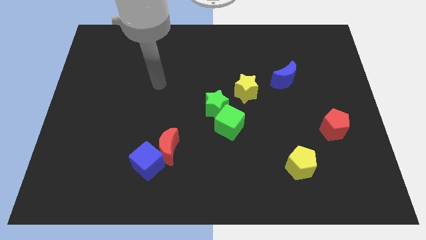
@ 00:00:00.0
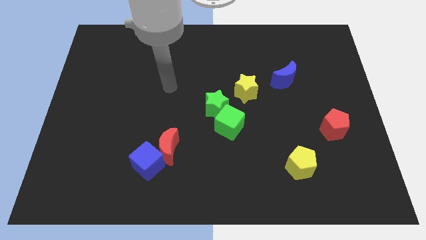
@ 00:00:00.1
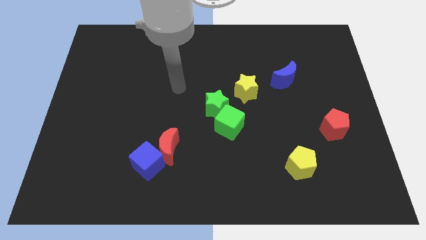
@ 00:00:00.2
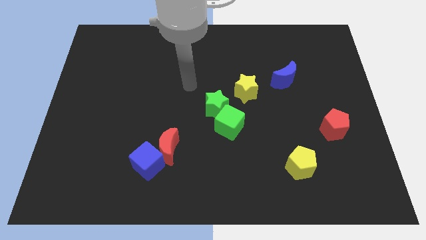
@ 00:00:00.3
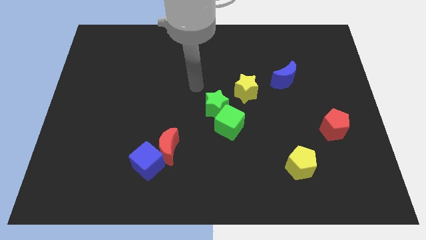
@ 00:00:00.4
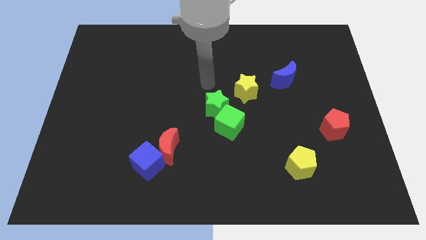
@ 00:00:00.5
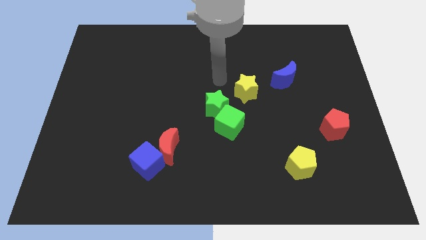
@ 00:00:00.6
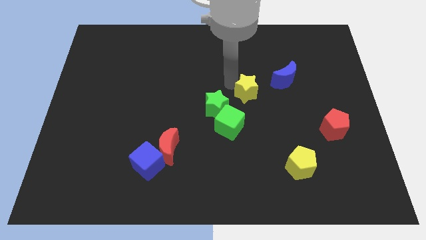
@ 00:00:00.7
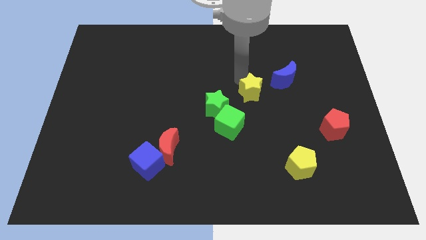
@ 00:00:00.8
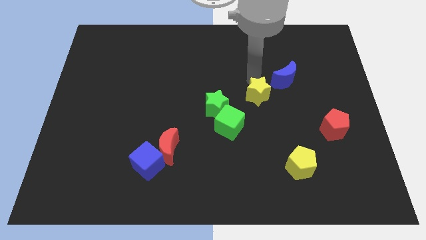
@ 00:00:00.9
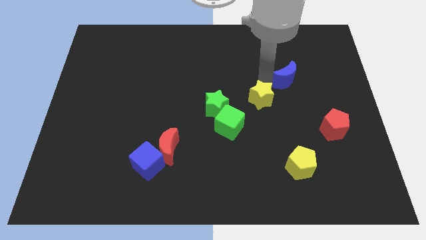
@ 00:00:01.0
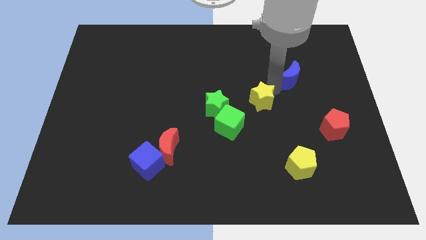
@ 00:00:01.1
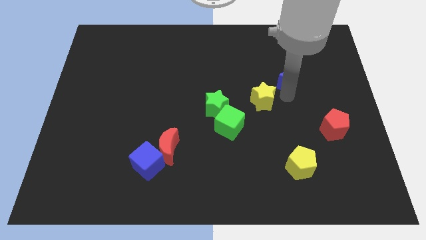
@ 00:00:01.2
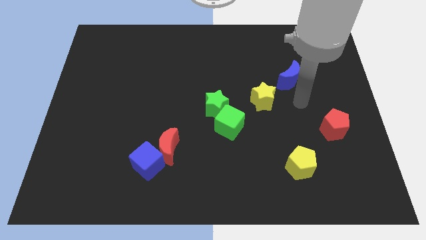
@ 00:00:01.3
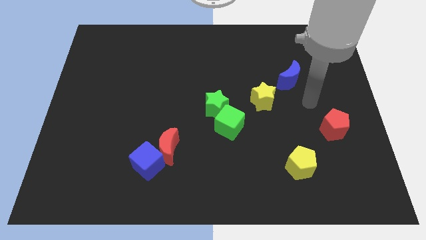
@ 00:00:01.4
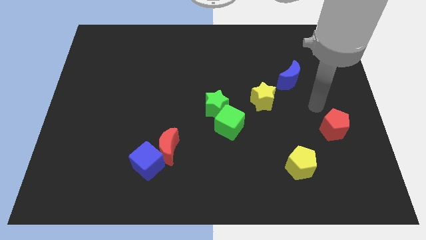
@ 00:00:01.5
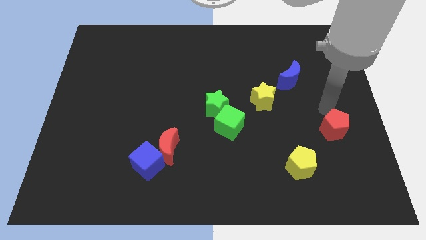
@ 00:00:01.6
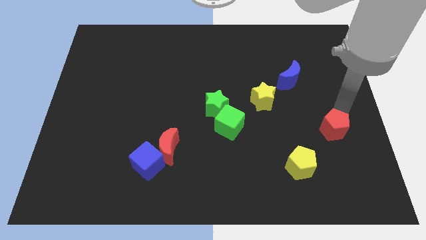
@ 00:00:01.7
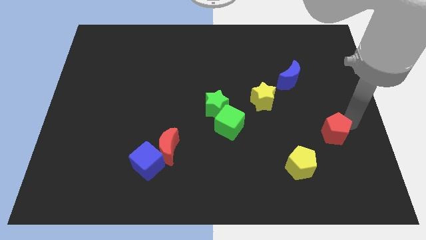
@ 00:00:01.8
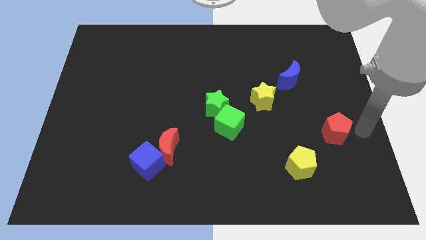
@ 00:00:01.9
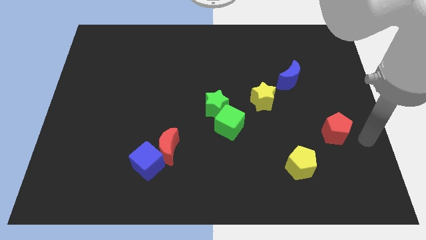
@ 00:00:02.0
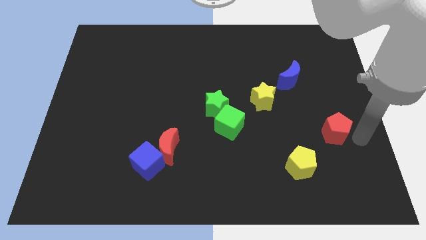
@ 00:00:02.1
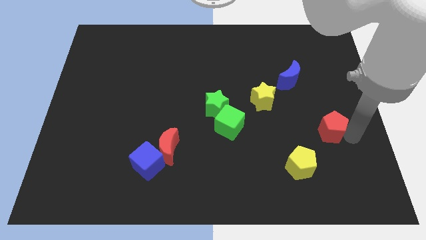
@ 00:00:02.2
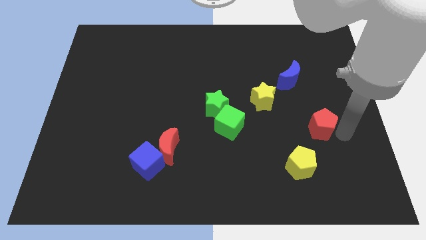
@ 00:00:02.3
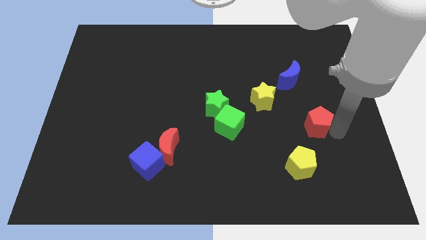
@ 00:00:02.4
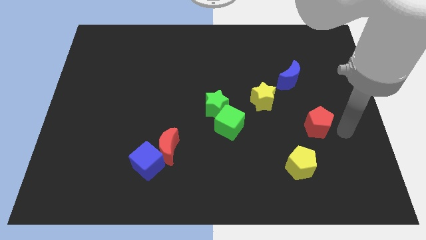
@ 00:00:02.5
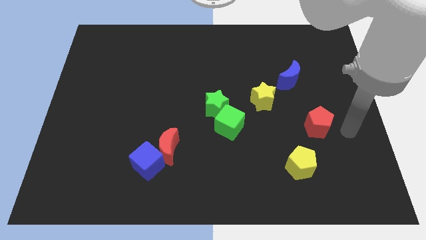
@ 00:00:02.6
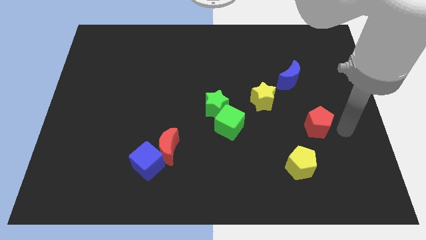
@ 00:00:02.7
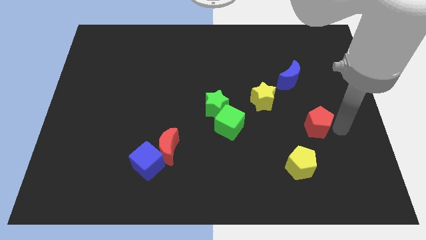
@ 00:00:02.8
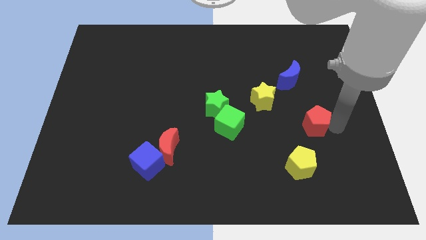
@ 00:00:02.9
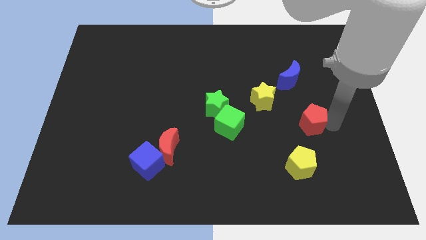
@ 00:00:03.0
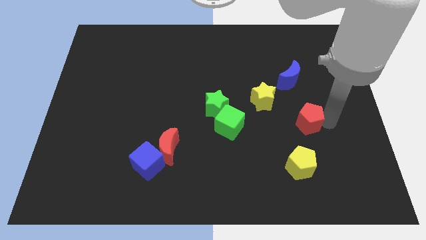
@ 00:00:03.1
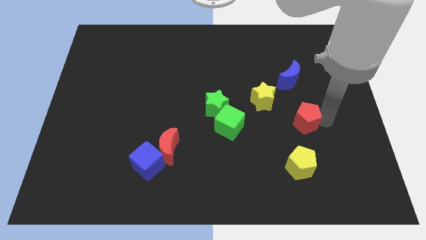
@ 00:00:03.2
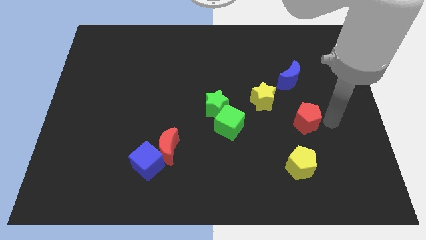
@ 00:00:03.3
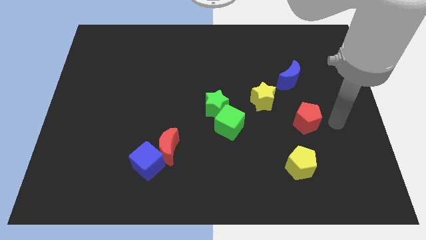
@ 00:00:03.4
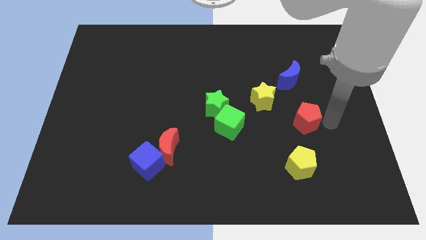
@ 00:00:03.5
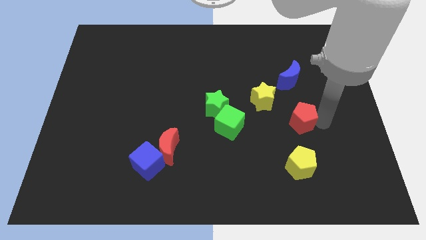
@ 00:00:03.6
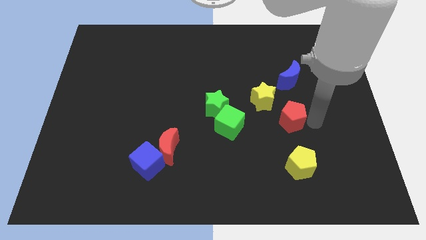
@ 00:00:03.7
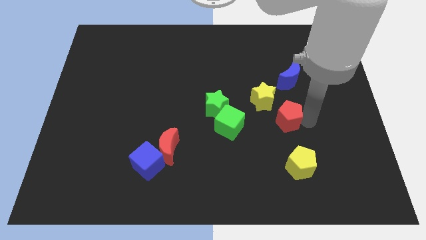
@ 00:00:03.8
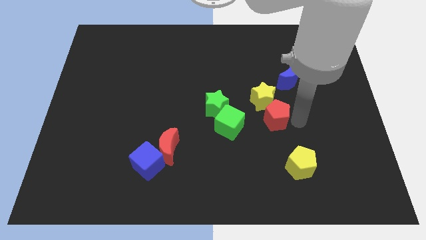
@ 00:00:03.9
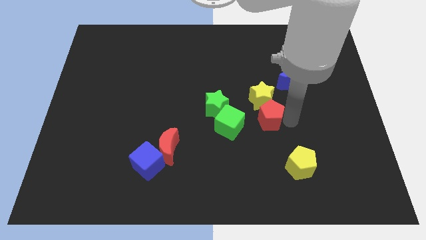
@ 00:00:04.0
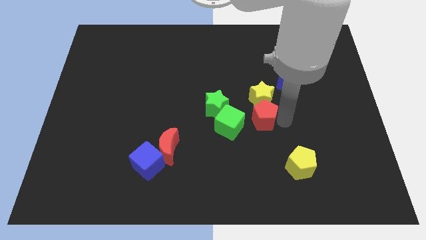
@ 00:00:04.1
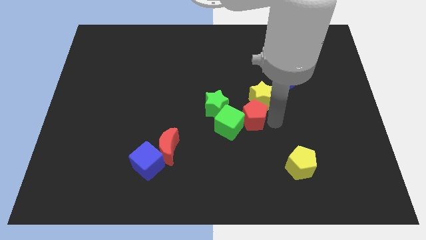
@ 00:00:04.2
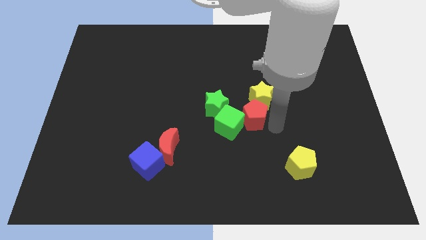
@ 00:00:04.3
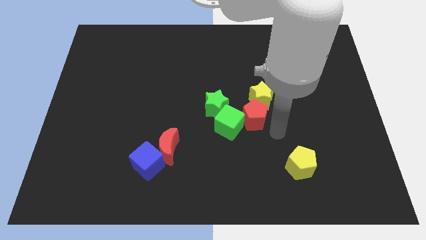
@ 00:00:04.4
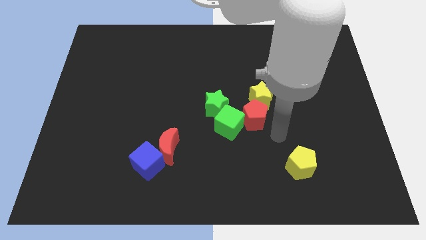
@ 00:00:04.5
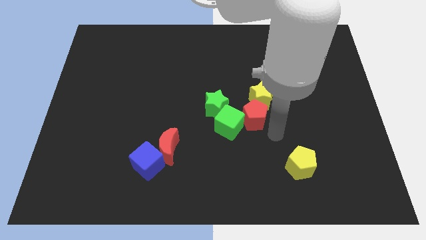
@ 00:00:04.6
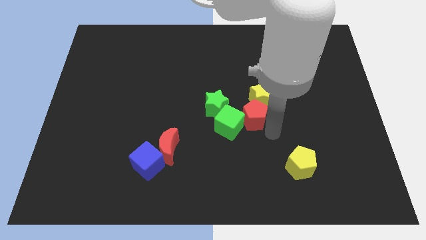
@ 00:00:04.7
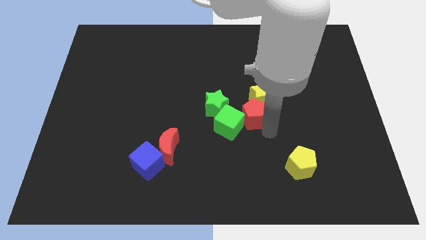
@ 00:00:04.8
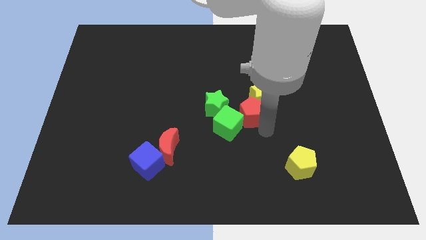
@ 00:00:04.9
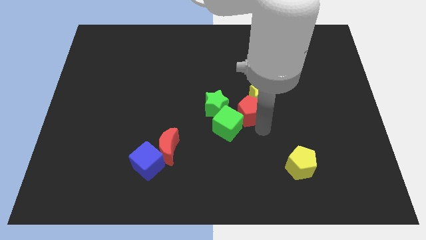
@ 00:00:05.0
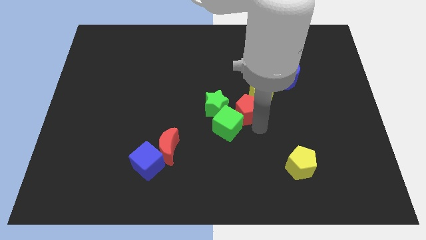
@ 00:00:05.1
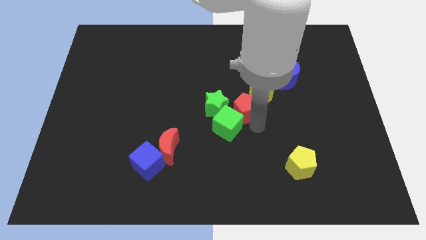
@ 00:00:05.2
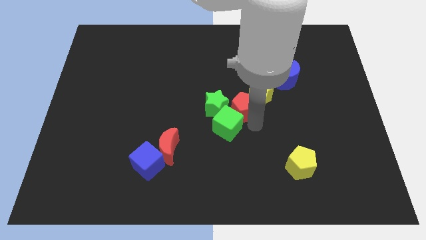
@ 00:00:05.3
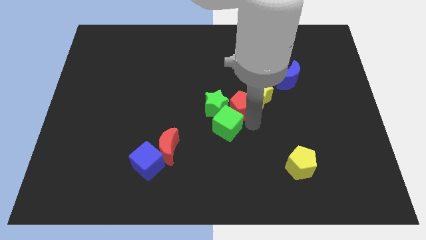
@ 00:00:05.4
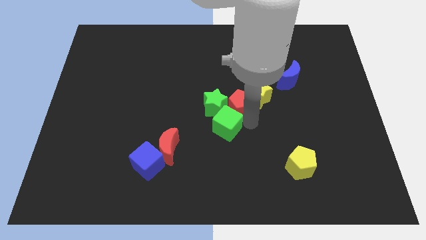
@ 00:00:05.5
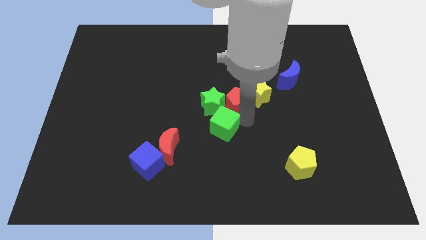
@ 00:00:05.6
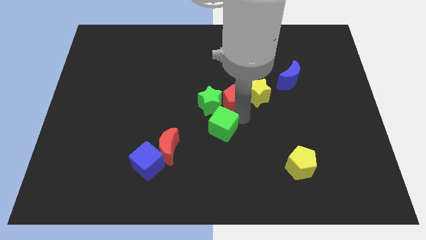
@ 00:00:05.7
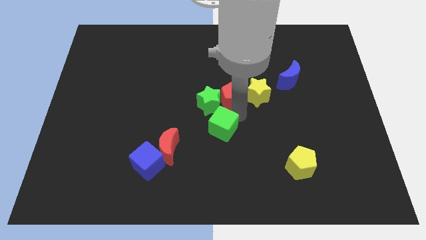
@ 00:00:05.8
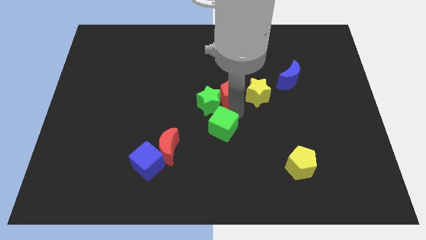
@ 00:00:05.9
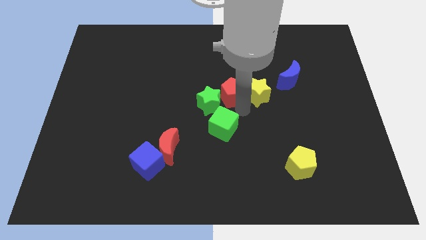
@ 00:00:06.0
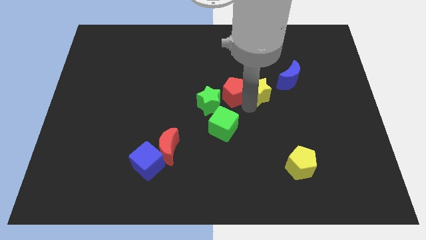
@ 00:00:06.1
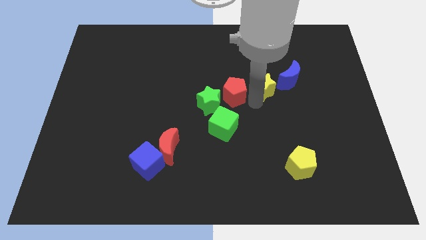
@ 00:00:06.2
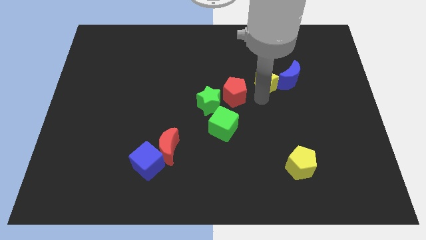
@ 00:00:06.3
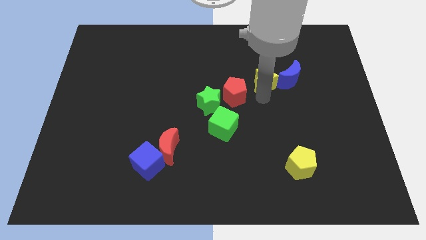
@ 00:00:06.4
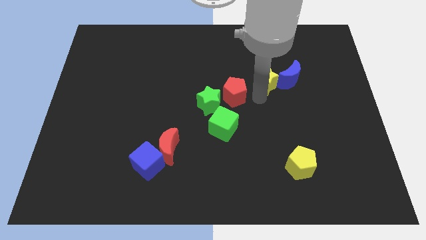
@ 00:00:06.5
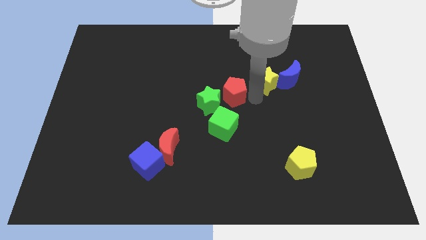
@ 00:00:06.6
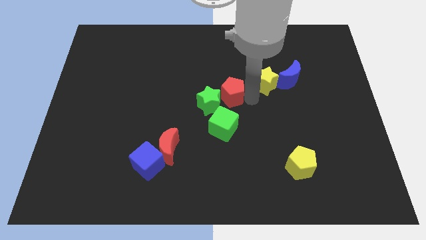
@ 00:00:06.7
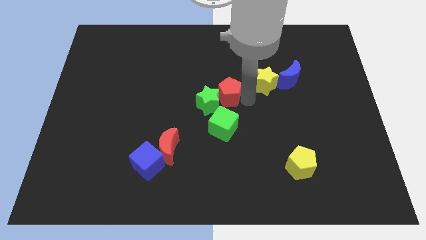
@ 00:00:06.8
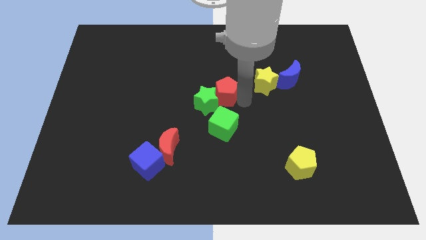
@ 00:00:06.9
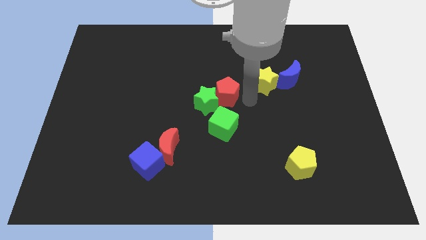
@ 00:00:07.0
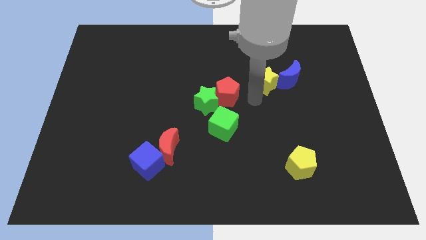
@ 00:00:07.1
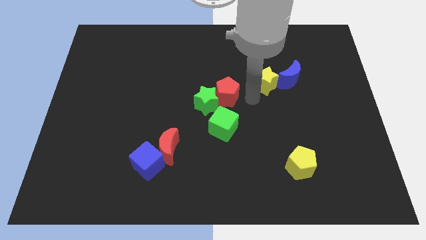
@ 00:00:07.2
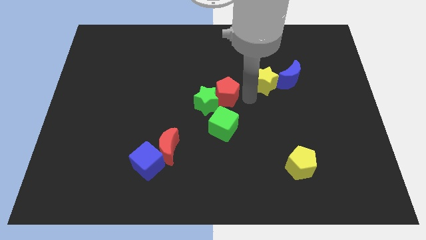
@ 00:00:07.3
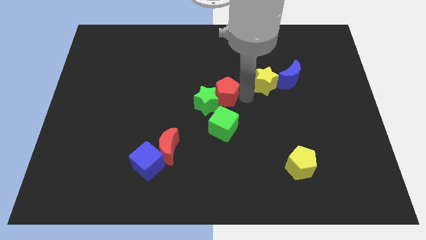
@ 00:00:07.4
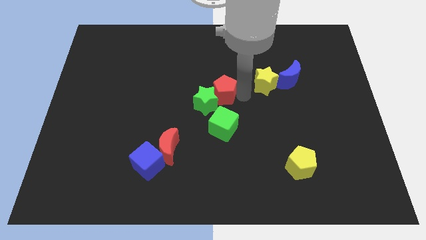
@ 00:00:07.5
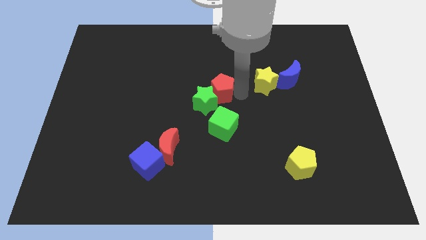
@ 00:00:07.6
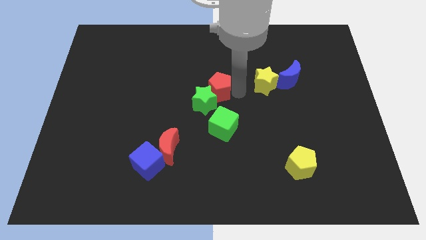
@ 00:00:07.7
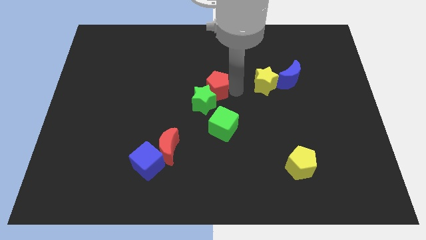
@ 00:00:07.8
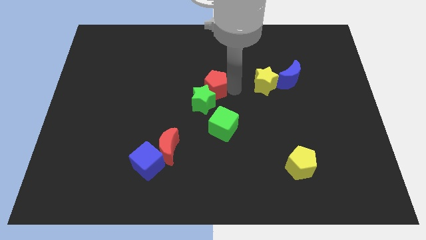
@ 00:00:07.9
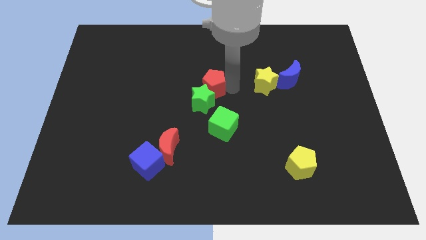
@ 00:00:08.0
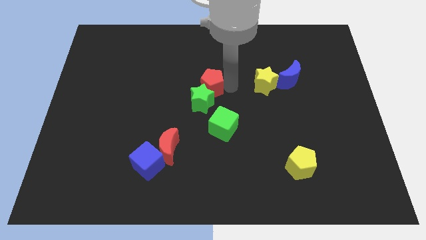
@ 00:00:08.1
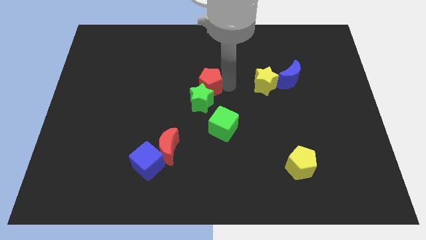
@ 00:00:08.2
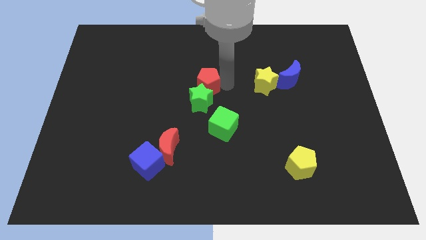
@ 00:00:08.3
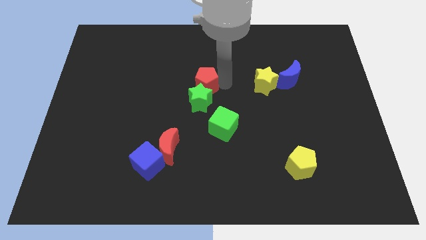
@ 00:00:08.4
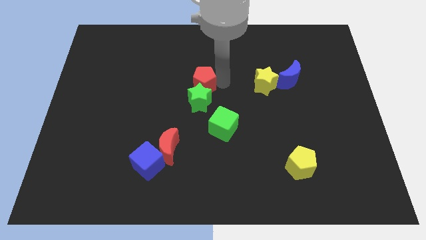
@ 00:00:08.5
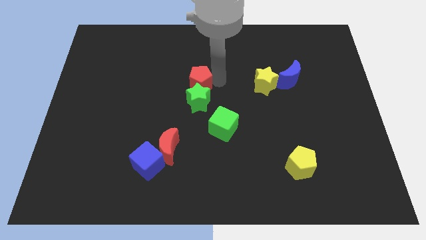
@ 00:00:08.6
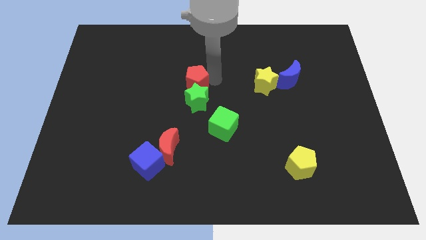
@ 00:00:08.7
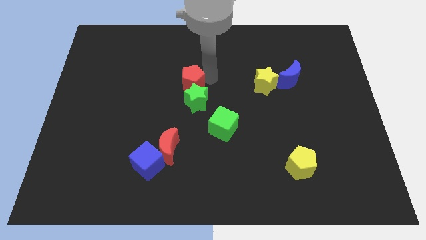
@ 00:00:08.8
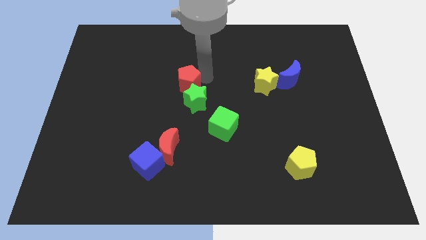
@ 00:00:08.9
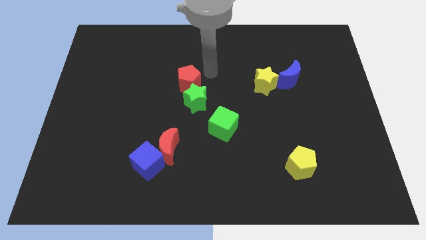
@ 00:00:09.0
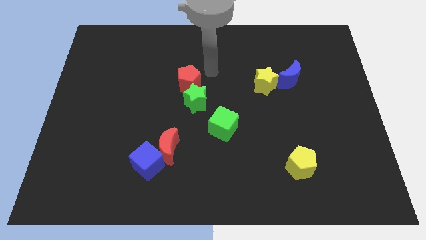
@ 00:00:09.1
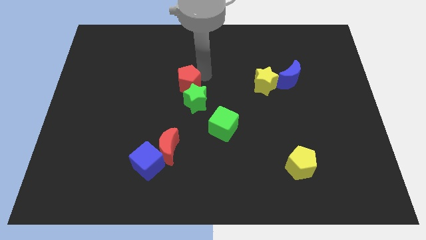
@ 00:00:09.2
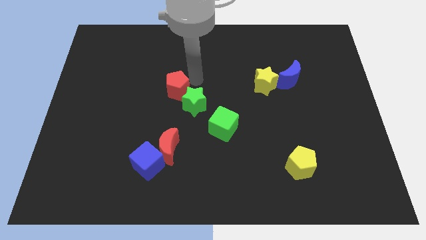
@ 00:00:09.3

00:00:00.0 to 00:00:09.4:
move the red pentagon just left of the green star
